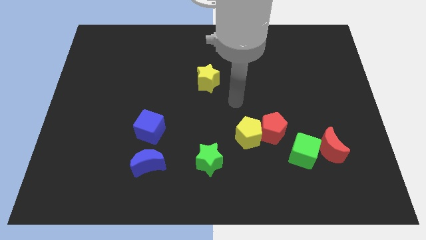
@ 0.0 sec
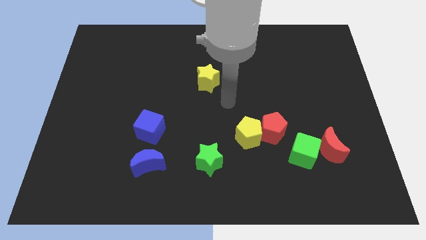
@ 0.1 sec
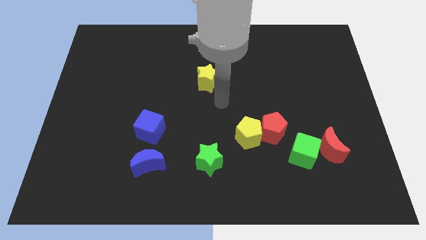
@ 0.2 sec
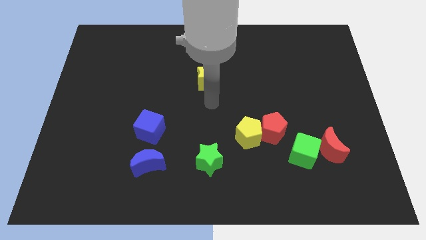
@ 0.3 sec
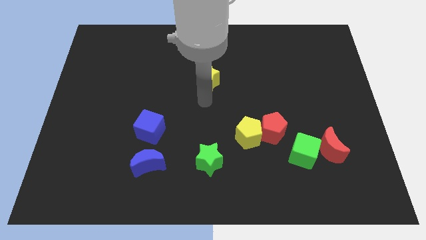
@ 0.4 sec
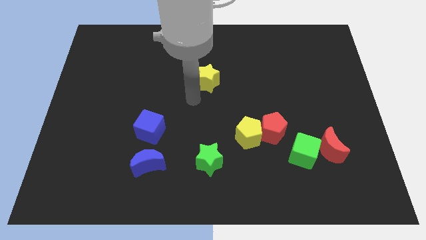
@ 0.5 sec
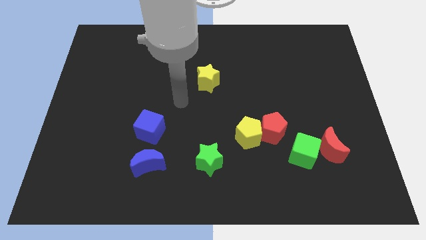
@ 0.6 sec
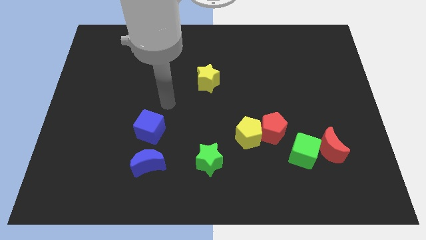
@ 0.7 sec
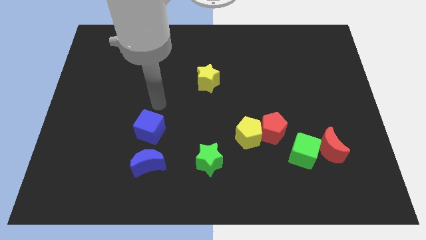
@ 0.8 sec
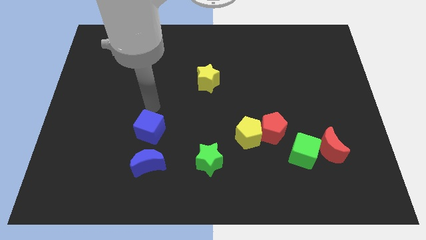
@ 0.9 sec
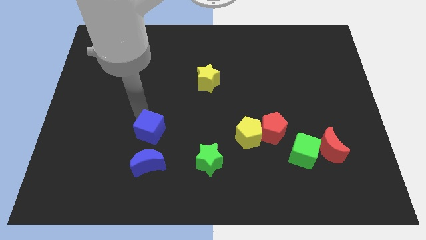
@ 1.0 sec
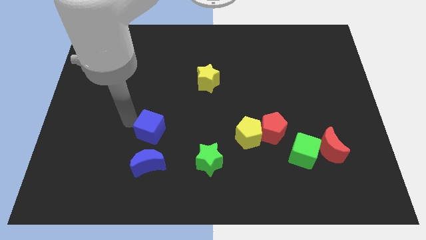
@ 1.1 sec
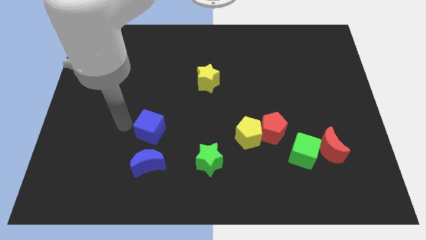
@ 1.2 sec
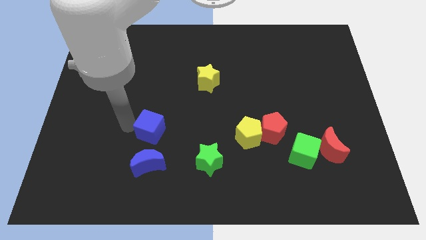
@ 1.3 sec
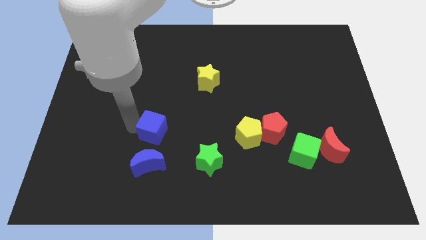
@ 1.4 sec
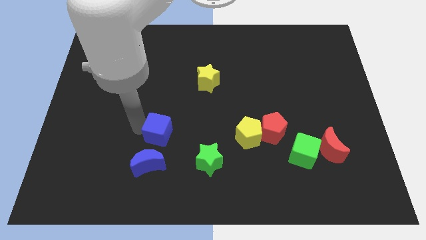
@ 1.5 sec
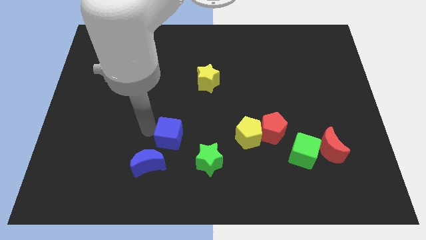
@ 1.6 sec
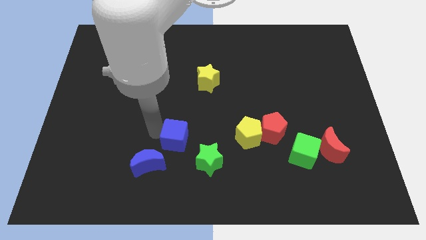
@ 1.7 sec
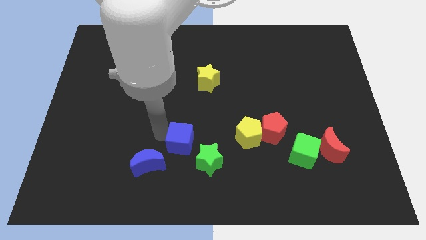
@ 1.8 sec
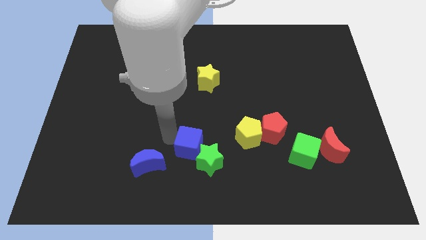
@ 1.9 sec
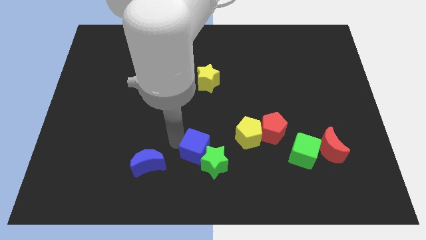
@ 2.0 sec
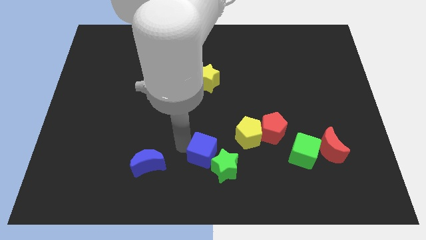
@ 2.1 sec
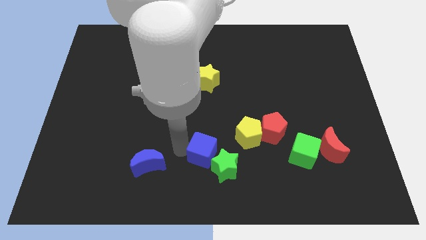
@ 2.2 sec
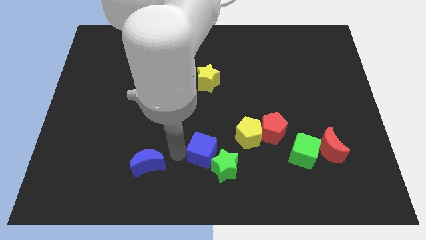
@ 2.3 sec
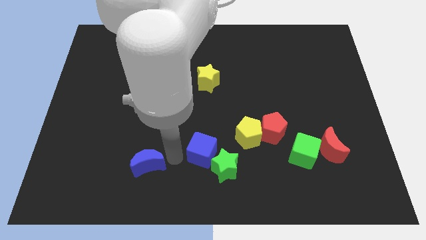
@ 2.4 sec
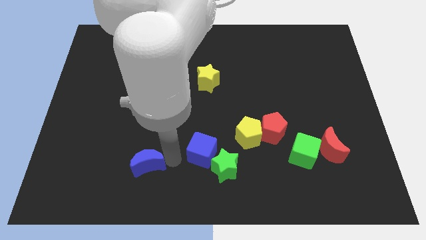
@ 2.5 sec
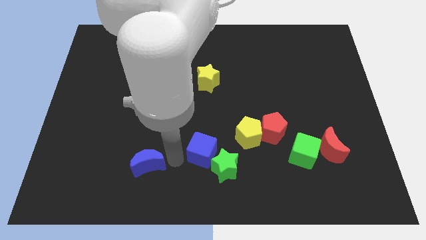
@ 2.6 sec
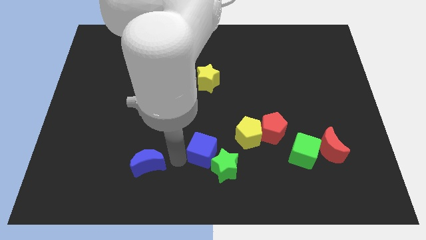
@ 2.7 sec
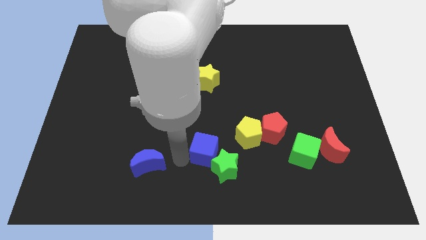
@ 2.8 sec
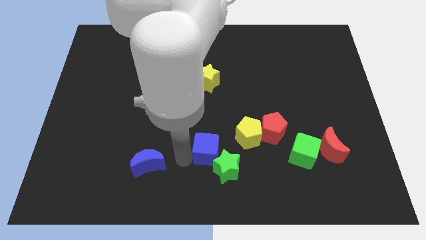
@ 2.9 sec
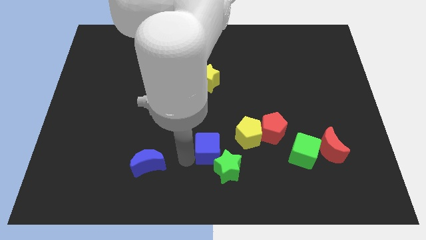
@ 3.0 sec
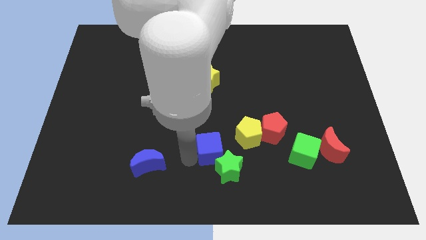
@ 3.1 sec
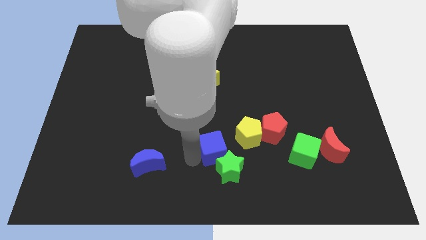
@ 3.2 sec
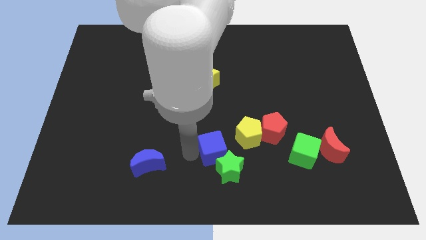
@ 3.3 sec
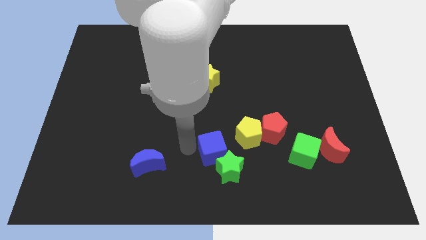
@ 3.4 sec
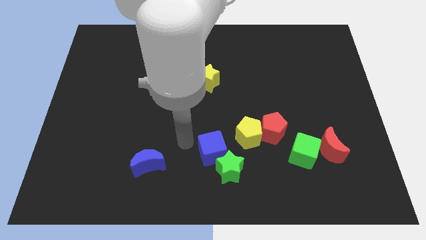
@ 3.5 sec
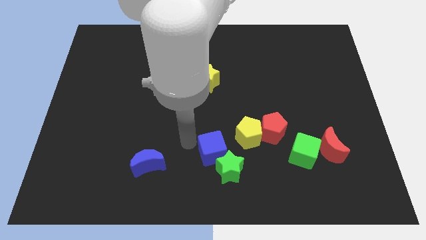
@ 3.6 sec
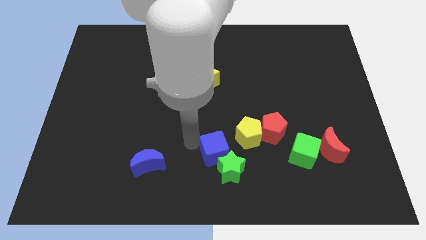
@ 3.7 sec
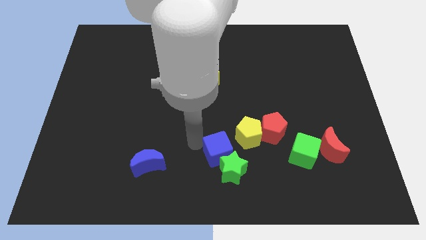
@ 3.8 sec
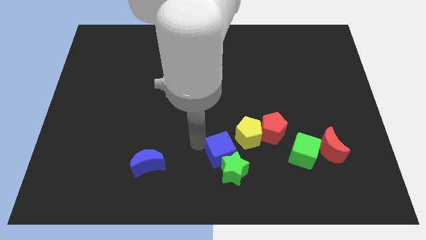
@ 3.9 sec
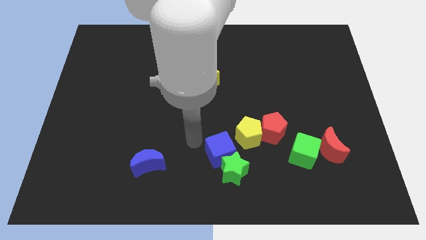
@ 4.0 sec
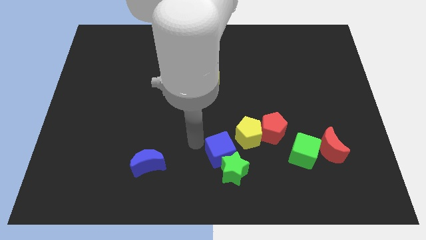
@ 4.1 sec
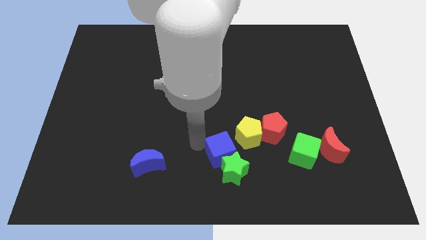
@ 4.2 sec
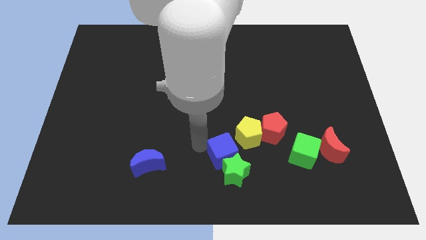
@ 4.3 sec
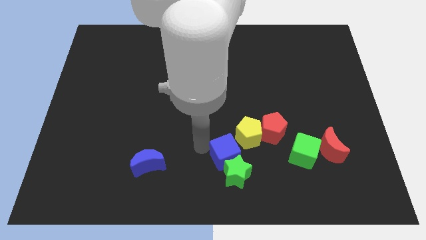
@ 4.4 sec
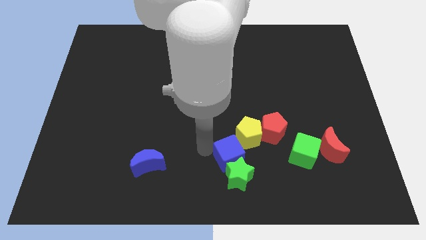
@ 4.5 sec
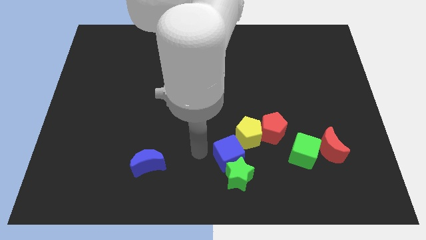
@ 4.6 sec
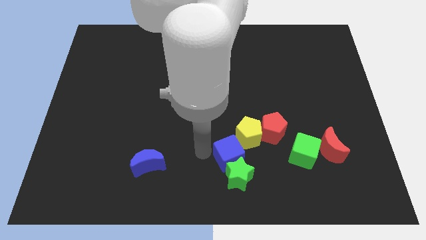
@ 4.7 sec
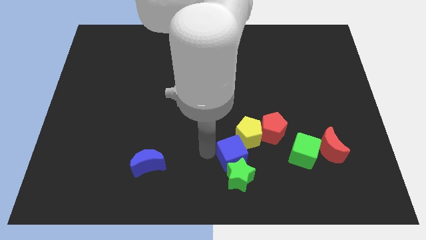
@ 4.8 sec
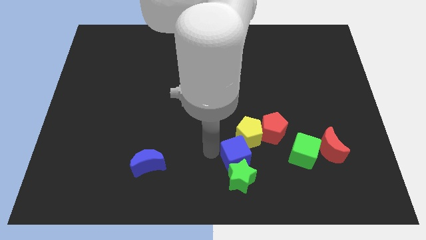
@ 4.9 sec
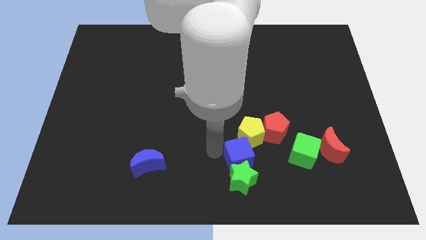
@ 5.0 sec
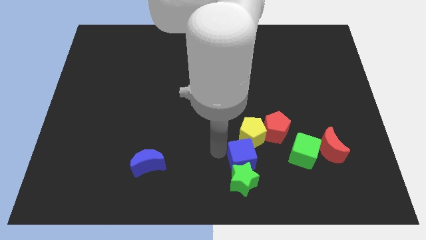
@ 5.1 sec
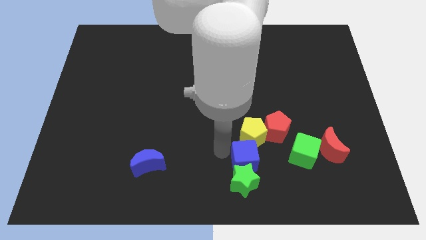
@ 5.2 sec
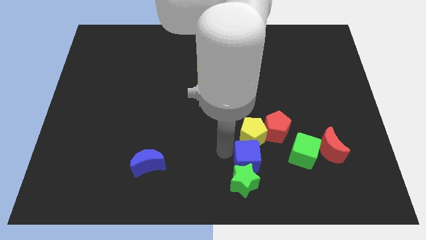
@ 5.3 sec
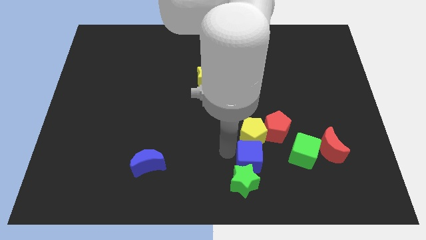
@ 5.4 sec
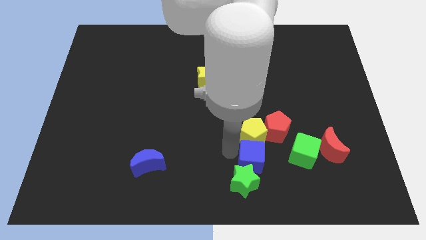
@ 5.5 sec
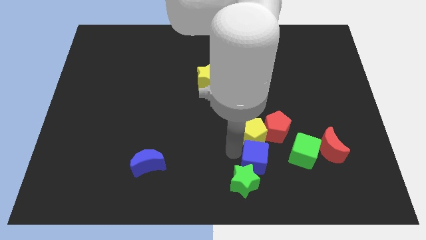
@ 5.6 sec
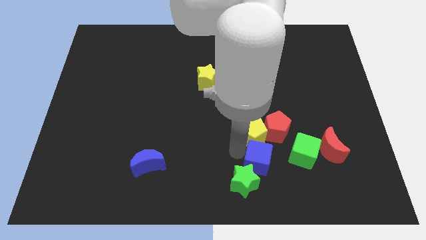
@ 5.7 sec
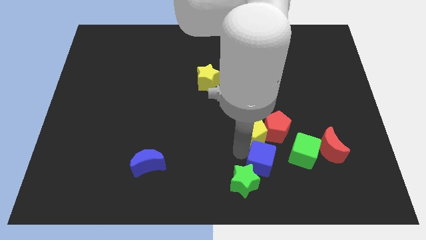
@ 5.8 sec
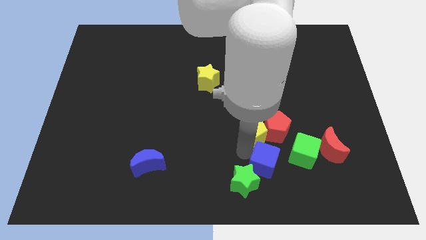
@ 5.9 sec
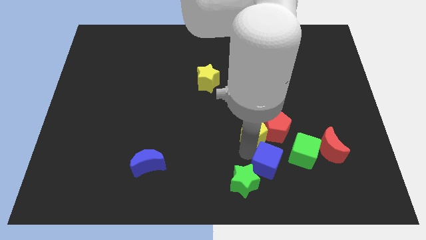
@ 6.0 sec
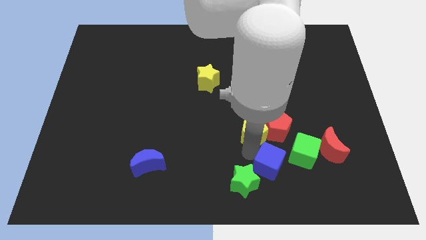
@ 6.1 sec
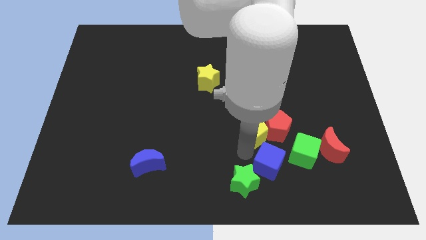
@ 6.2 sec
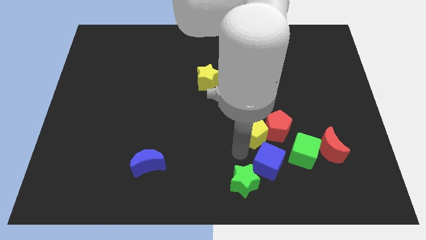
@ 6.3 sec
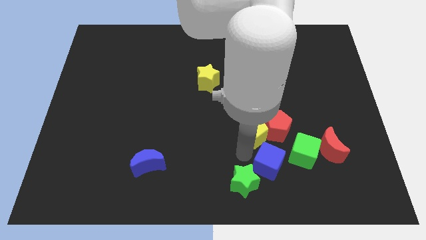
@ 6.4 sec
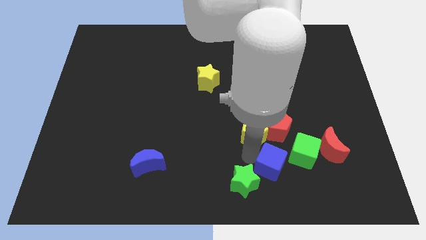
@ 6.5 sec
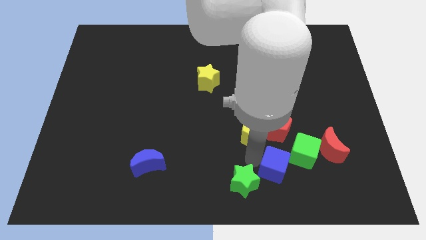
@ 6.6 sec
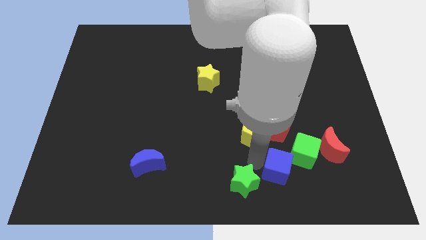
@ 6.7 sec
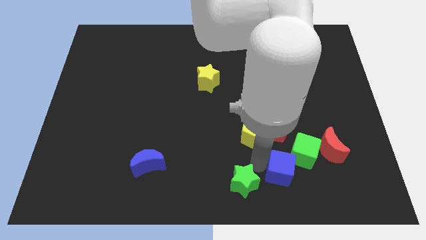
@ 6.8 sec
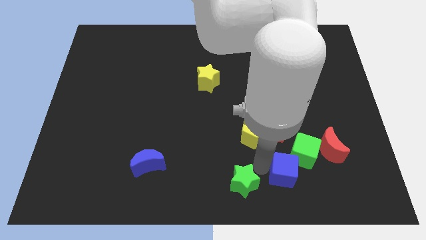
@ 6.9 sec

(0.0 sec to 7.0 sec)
push the blue cube to the bottom left side of the red moon

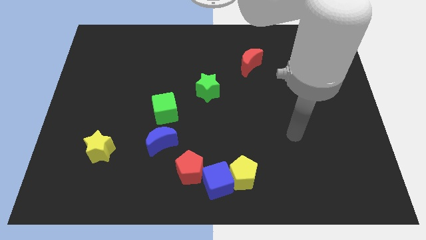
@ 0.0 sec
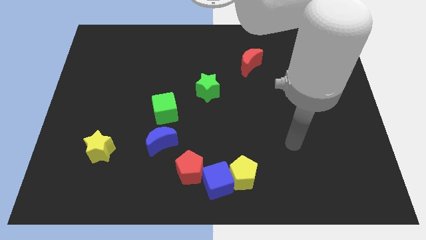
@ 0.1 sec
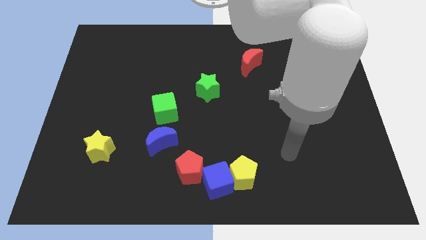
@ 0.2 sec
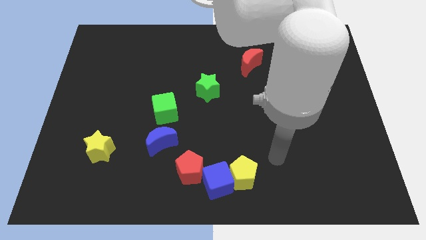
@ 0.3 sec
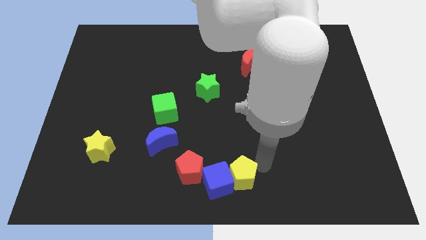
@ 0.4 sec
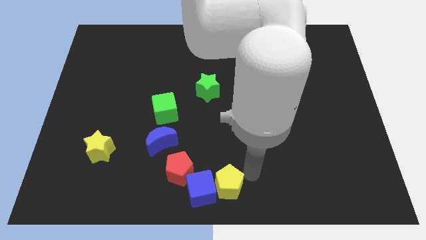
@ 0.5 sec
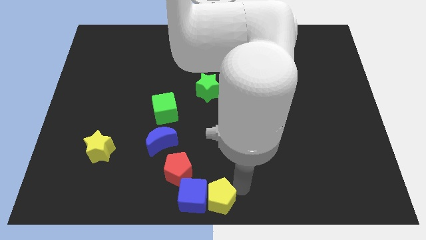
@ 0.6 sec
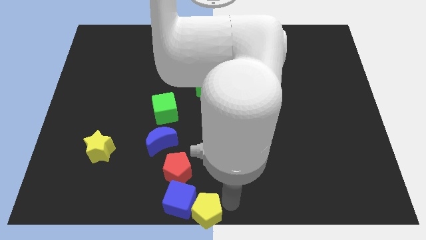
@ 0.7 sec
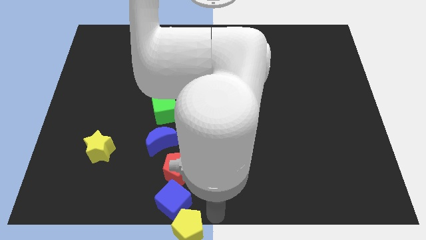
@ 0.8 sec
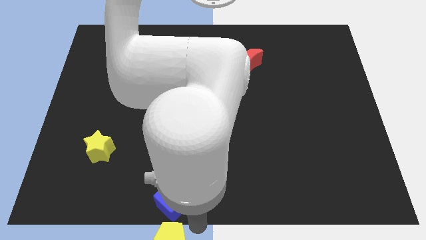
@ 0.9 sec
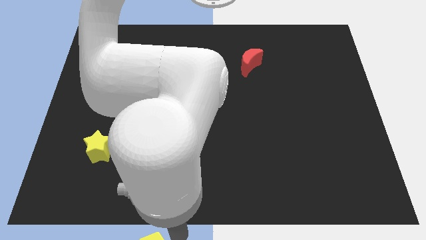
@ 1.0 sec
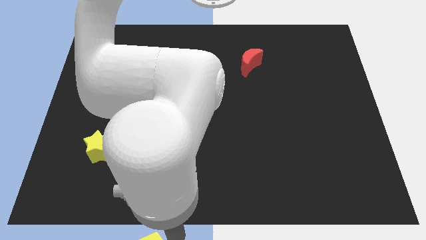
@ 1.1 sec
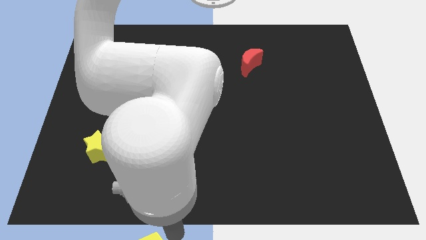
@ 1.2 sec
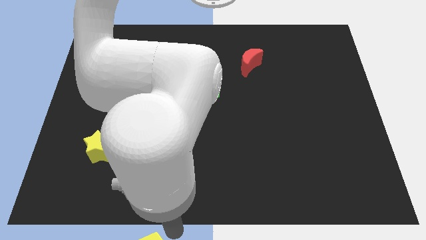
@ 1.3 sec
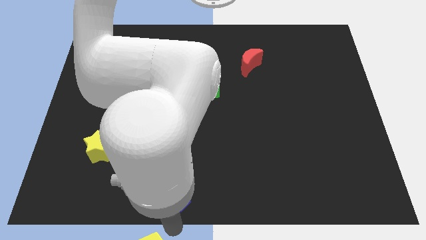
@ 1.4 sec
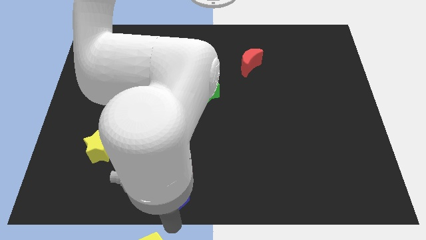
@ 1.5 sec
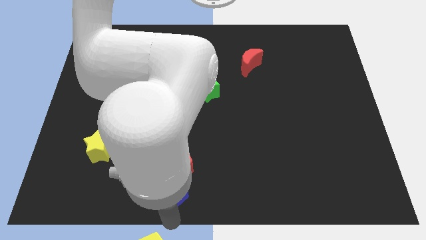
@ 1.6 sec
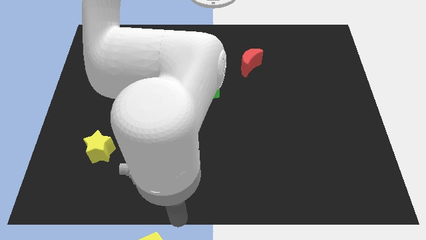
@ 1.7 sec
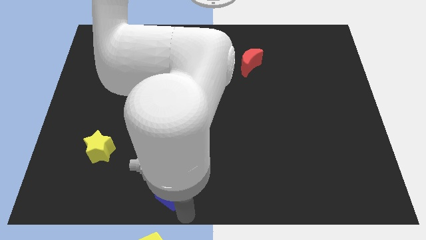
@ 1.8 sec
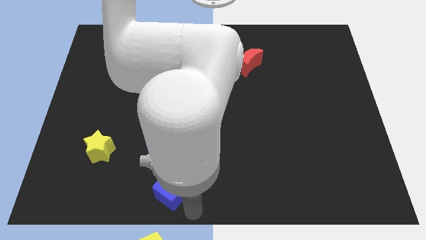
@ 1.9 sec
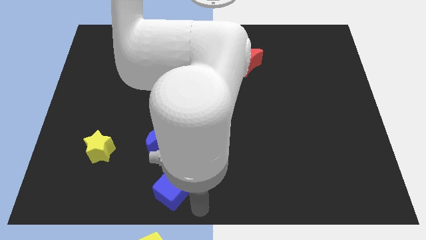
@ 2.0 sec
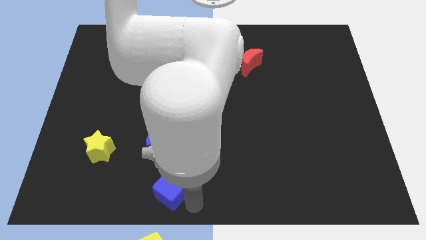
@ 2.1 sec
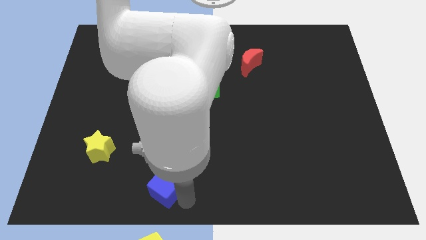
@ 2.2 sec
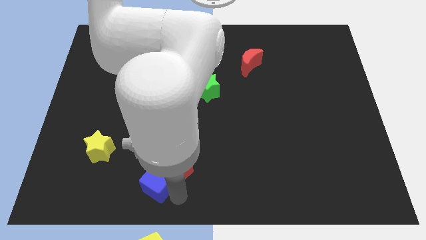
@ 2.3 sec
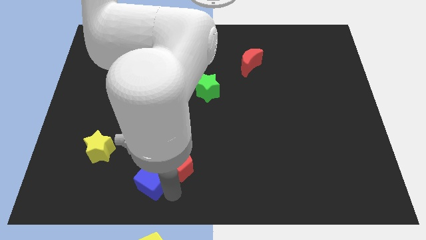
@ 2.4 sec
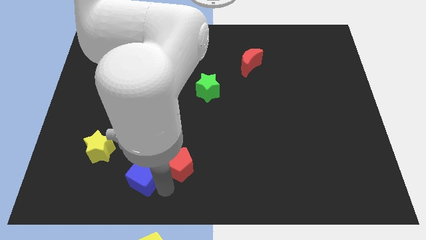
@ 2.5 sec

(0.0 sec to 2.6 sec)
slide the blue cube to the bottom right side of the yellow star
